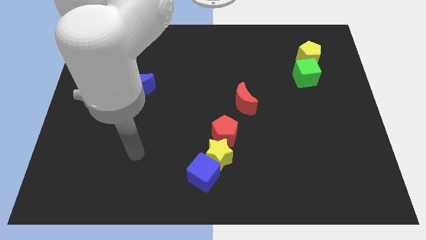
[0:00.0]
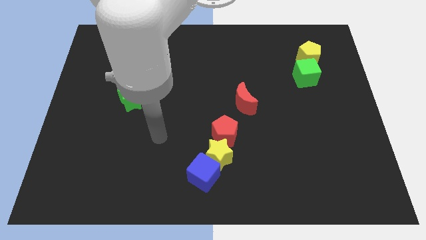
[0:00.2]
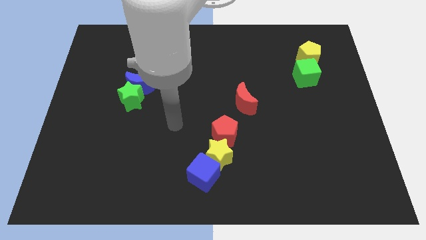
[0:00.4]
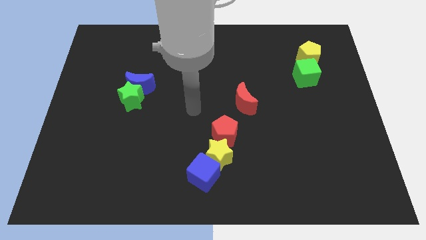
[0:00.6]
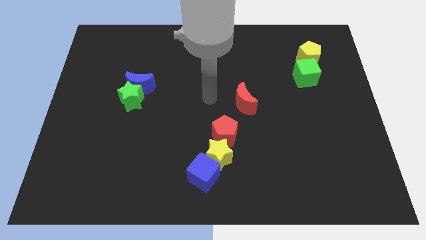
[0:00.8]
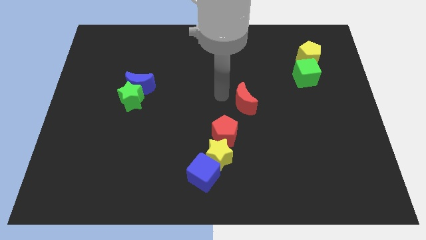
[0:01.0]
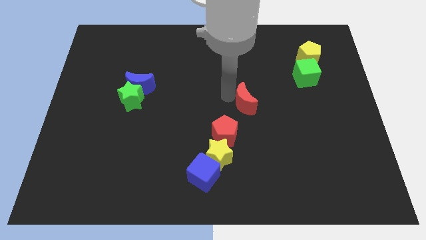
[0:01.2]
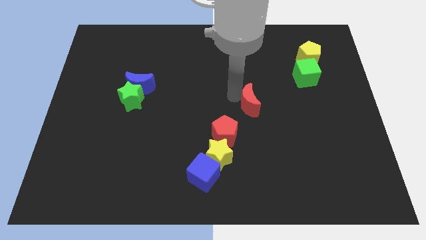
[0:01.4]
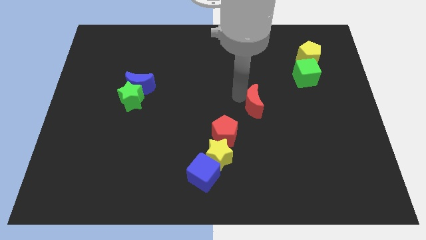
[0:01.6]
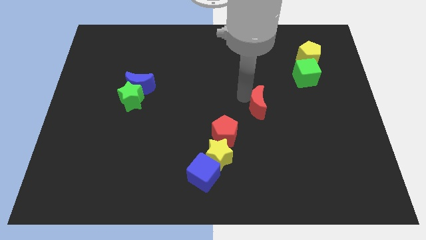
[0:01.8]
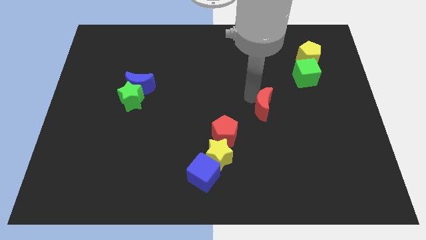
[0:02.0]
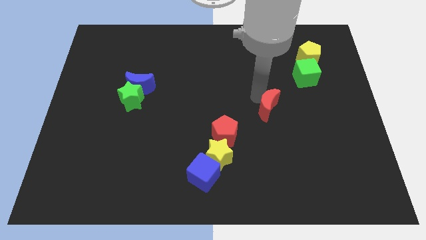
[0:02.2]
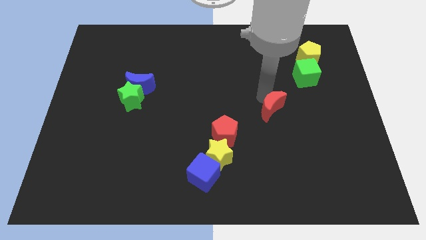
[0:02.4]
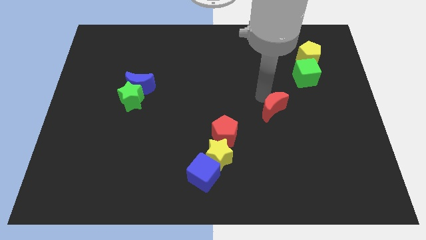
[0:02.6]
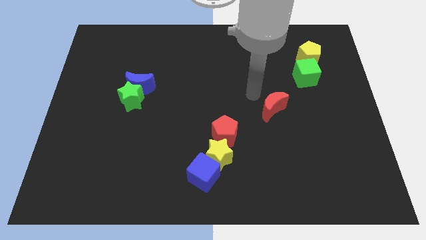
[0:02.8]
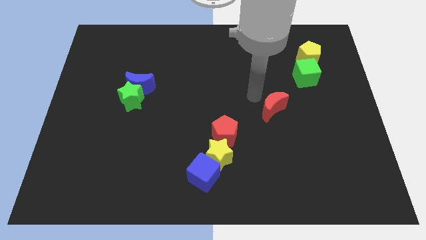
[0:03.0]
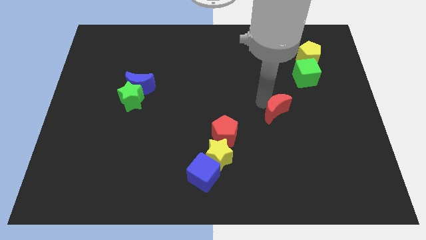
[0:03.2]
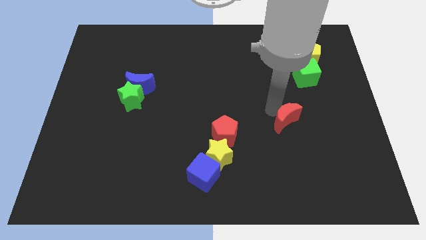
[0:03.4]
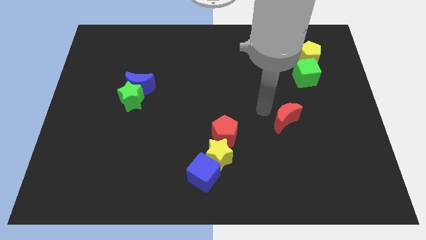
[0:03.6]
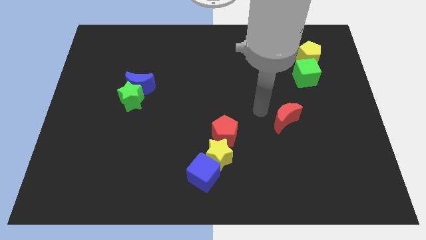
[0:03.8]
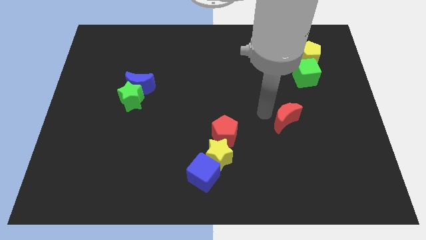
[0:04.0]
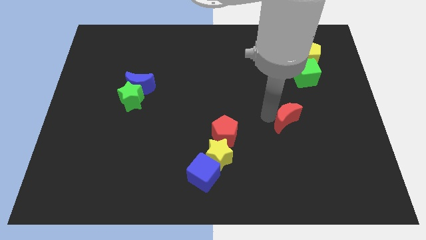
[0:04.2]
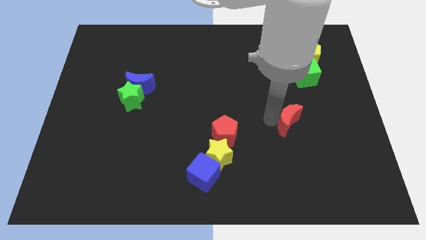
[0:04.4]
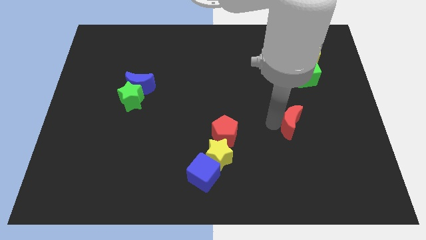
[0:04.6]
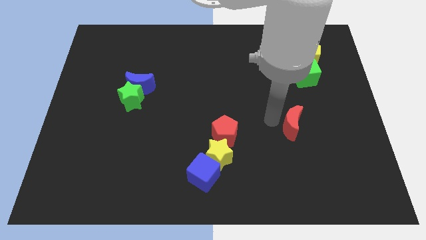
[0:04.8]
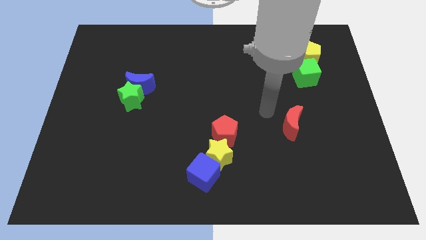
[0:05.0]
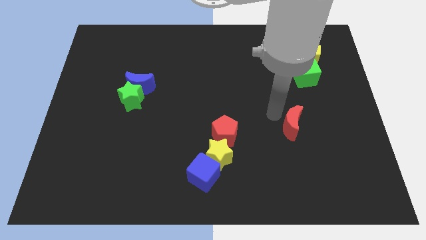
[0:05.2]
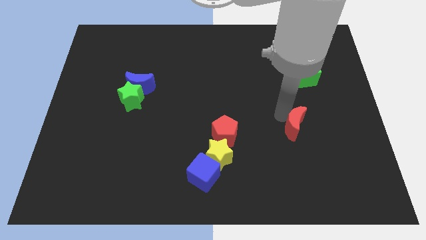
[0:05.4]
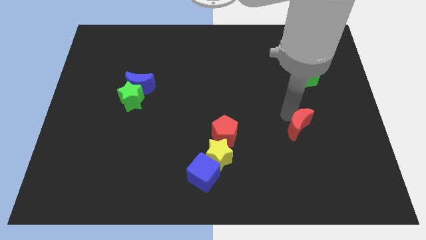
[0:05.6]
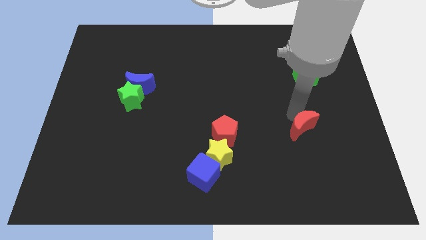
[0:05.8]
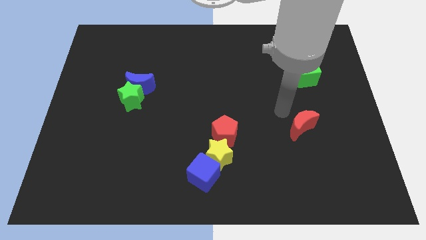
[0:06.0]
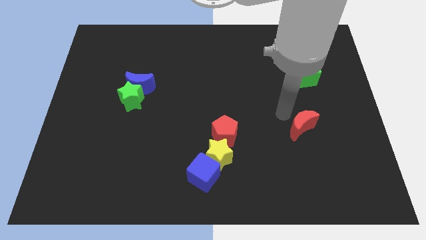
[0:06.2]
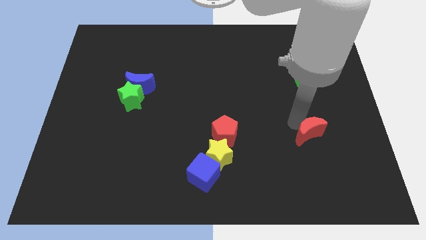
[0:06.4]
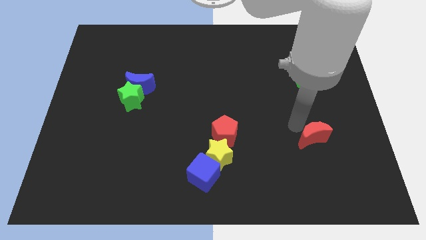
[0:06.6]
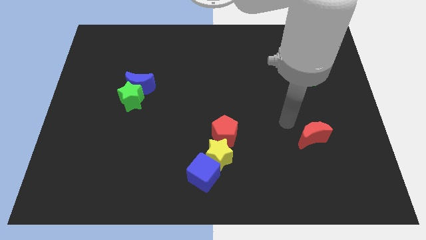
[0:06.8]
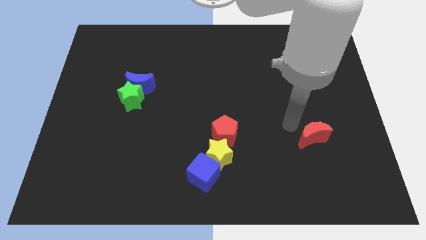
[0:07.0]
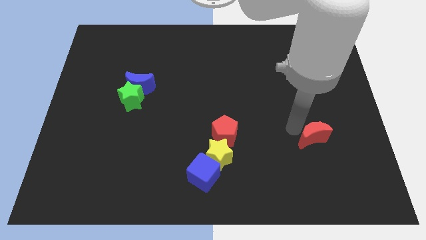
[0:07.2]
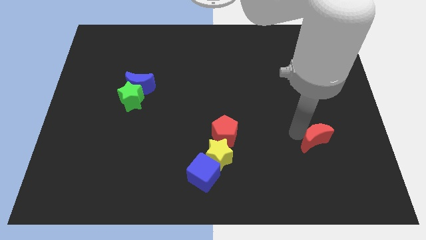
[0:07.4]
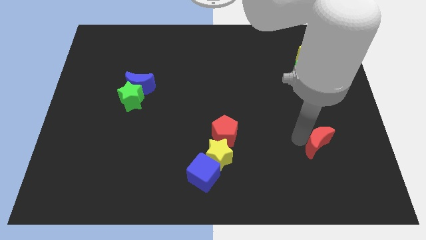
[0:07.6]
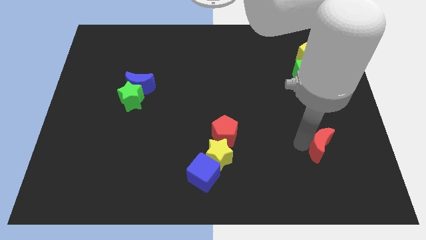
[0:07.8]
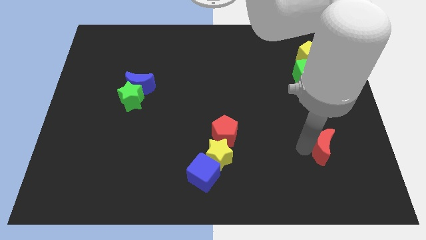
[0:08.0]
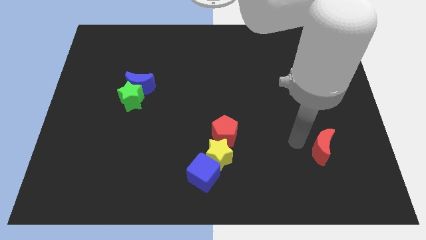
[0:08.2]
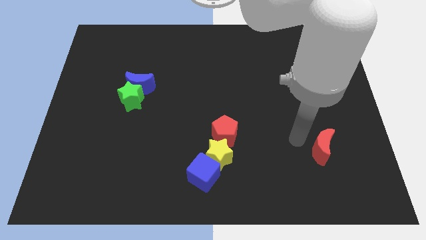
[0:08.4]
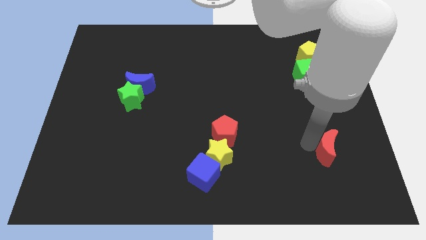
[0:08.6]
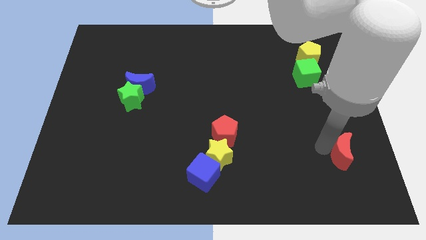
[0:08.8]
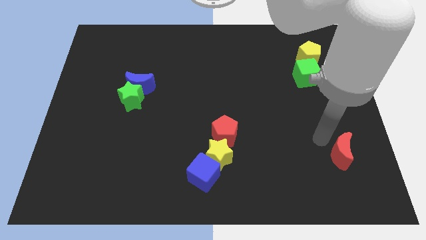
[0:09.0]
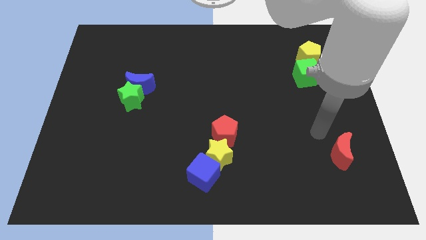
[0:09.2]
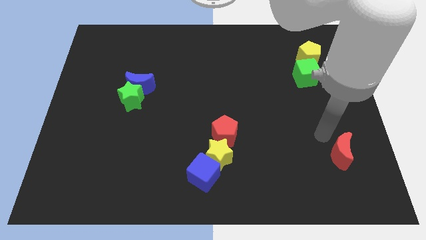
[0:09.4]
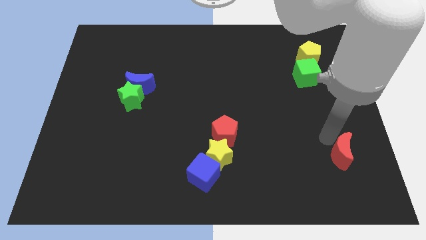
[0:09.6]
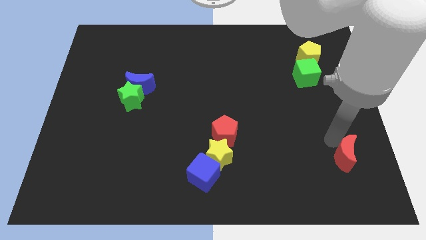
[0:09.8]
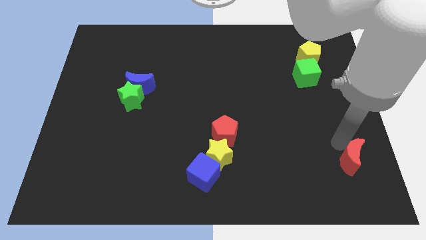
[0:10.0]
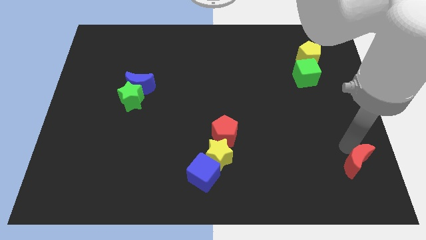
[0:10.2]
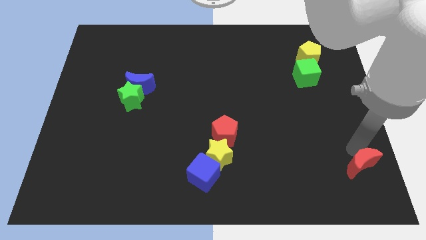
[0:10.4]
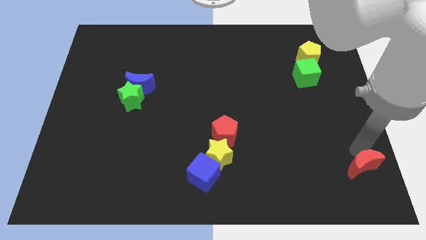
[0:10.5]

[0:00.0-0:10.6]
push the red moon to the bottom right of the board

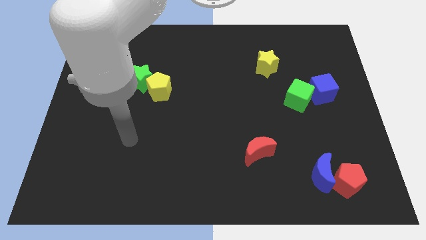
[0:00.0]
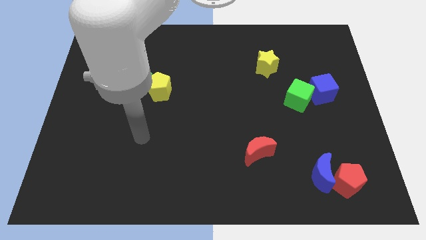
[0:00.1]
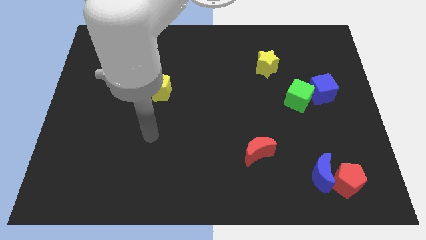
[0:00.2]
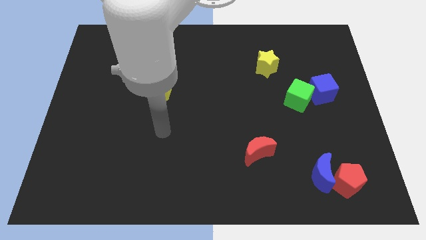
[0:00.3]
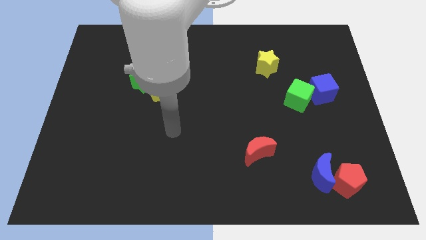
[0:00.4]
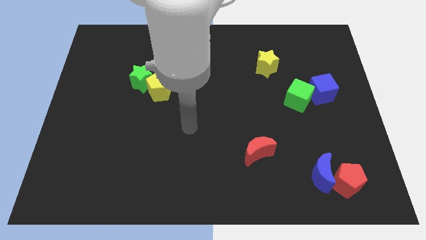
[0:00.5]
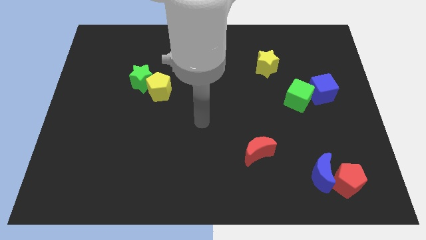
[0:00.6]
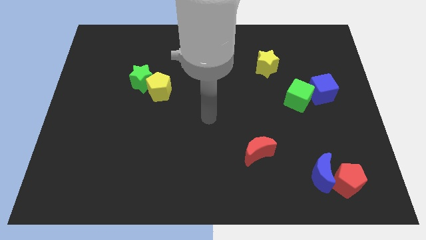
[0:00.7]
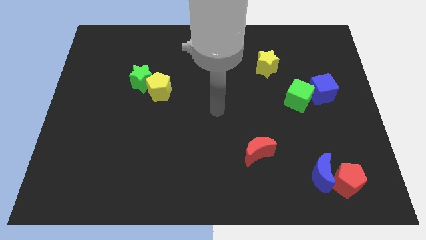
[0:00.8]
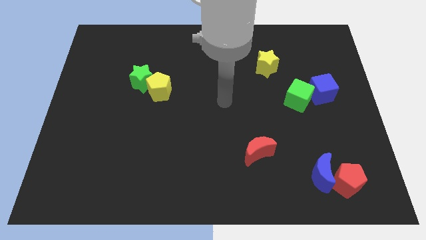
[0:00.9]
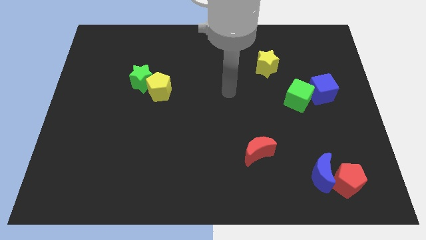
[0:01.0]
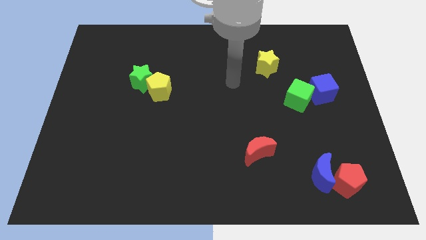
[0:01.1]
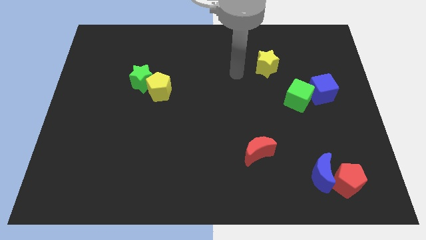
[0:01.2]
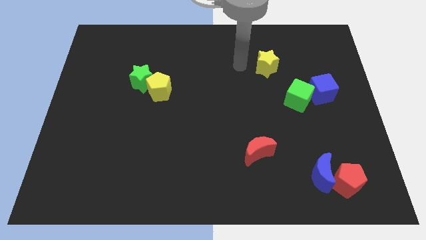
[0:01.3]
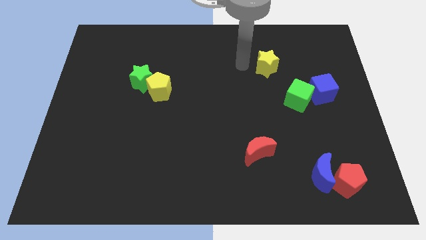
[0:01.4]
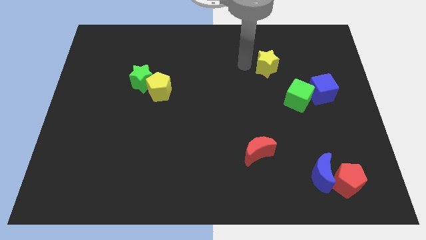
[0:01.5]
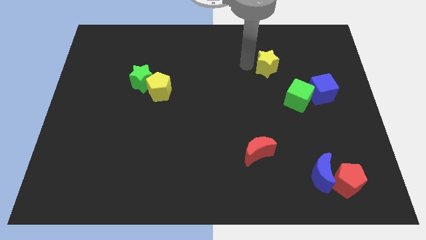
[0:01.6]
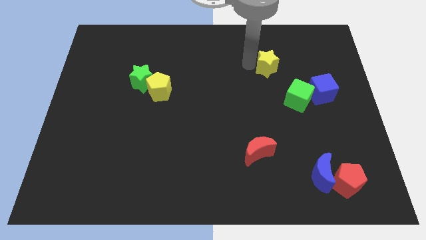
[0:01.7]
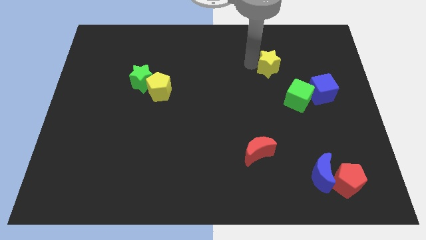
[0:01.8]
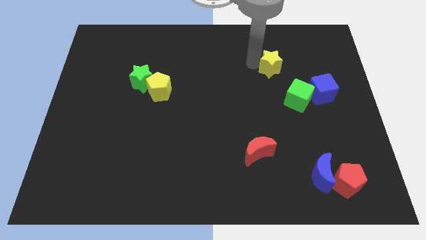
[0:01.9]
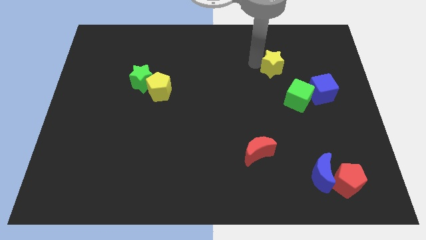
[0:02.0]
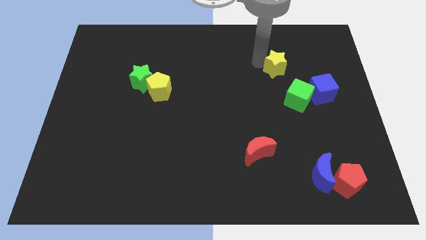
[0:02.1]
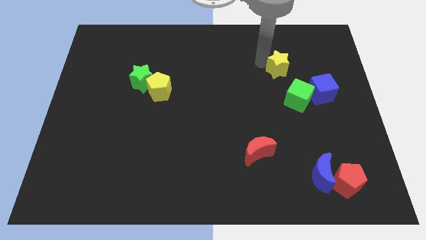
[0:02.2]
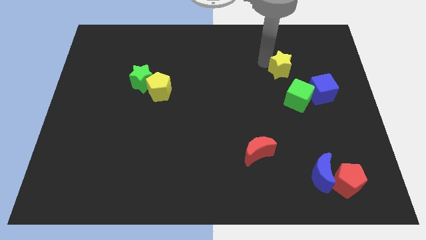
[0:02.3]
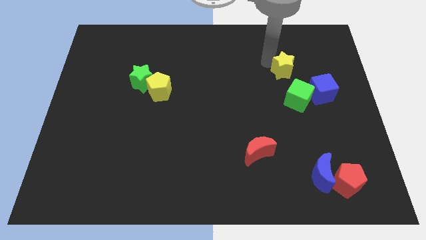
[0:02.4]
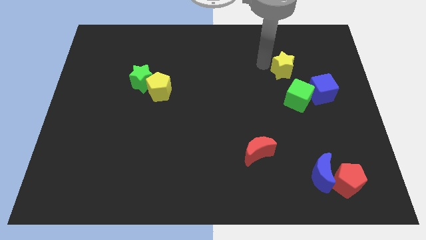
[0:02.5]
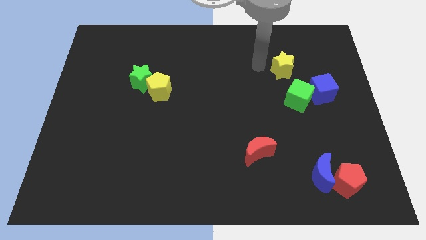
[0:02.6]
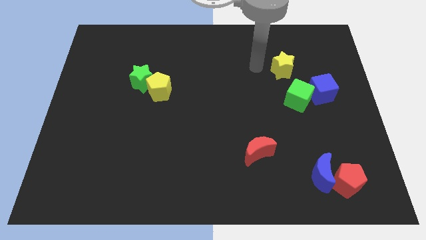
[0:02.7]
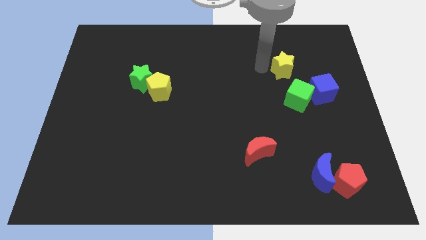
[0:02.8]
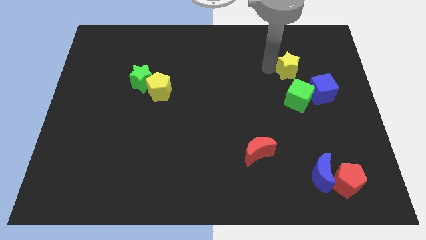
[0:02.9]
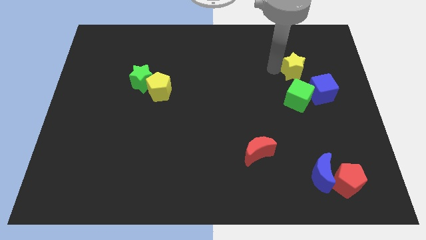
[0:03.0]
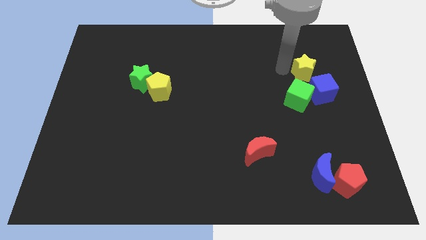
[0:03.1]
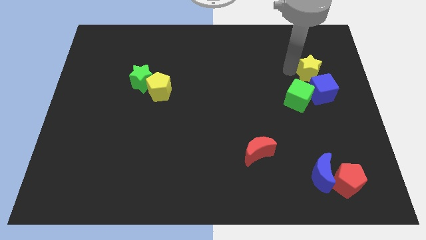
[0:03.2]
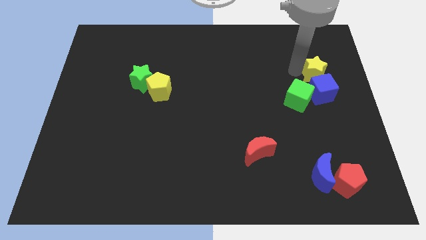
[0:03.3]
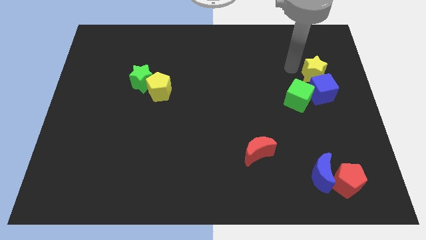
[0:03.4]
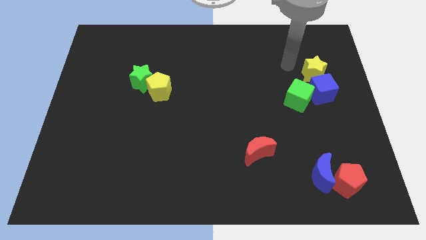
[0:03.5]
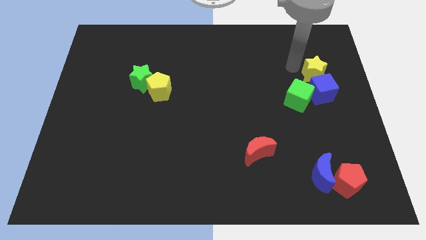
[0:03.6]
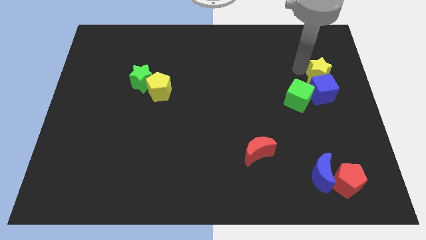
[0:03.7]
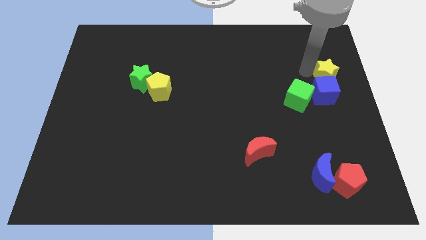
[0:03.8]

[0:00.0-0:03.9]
slide the yellow star to the right side of the board
